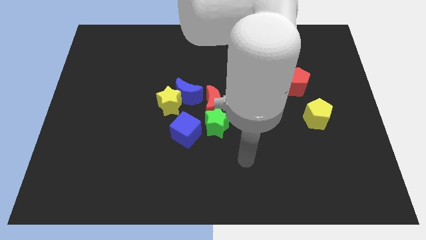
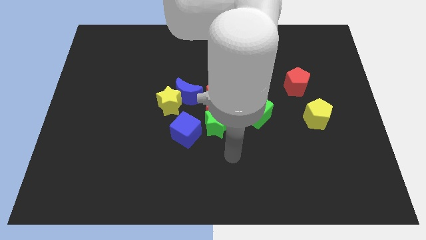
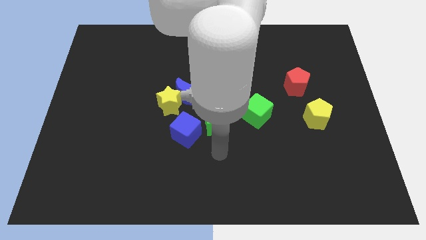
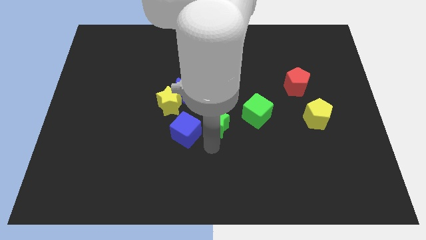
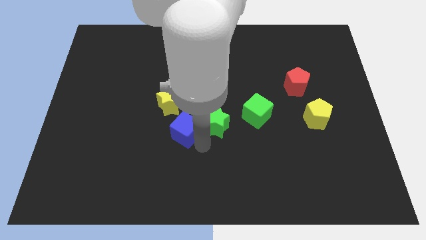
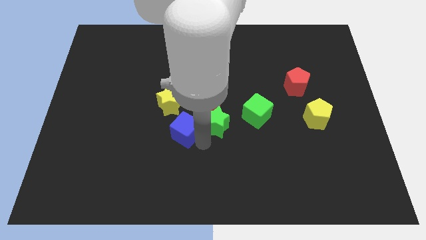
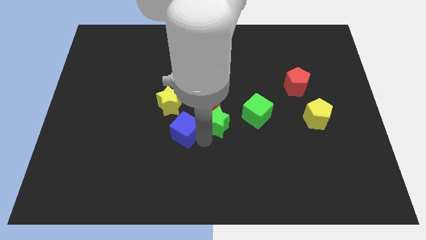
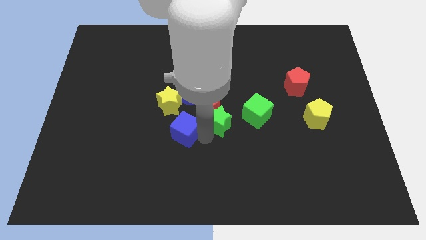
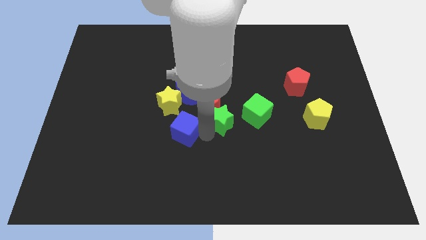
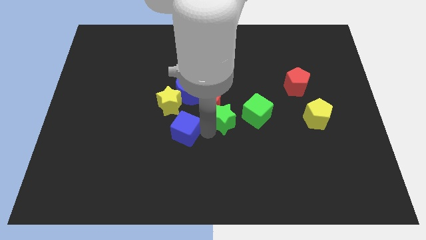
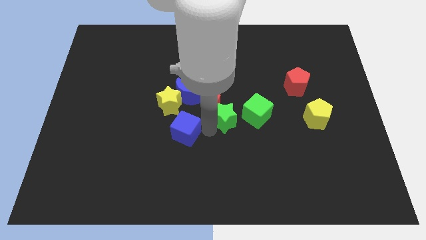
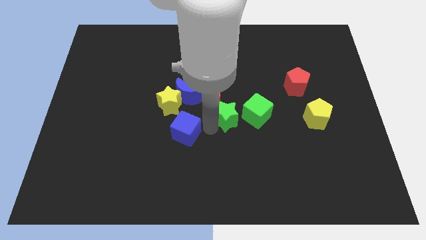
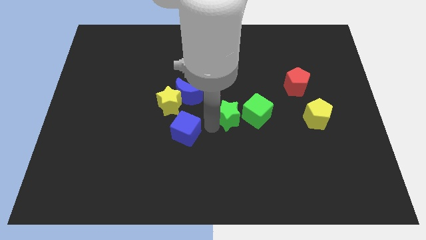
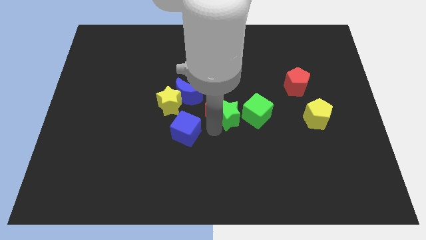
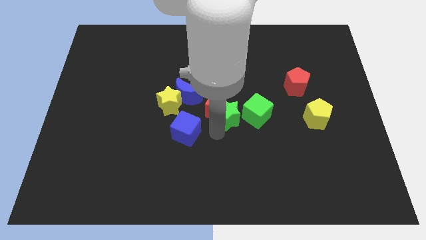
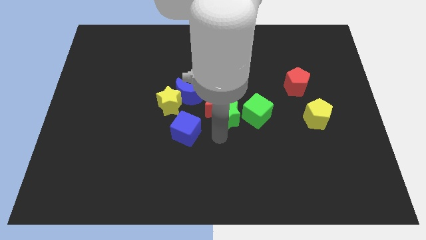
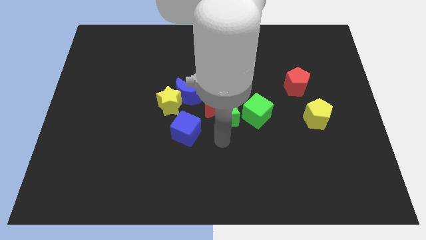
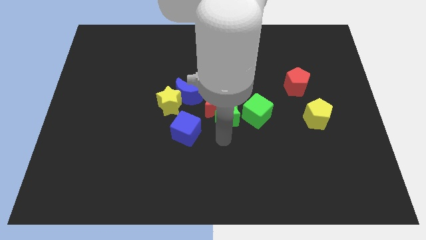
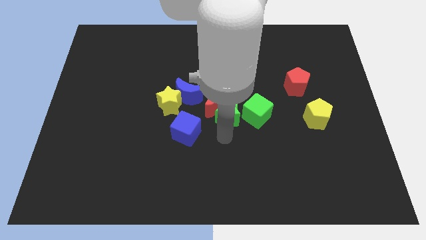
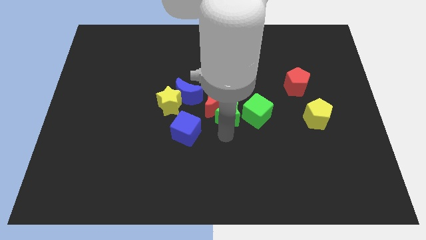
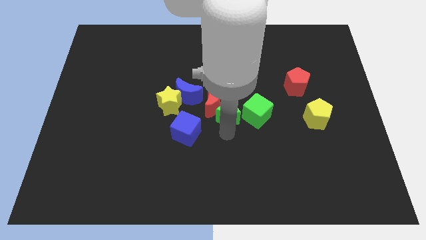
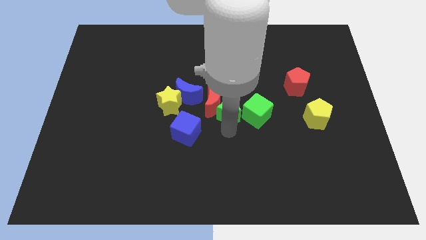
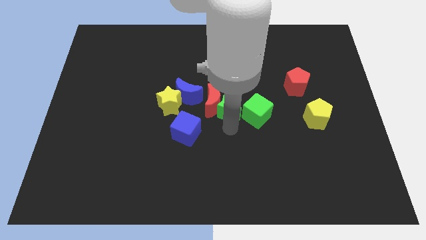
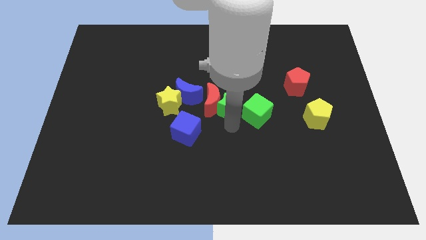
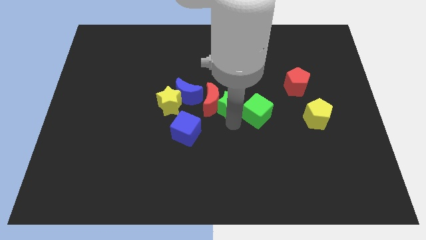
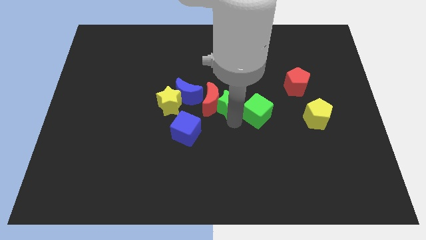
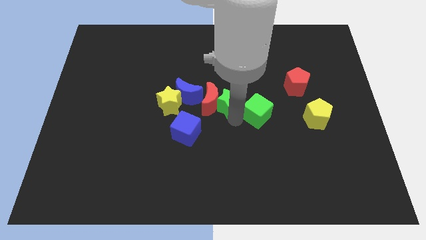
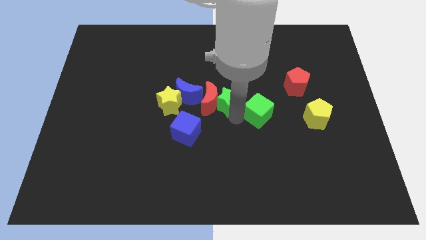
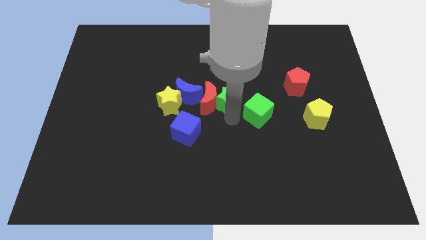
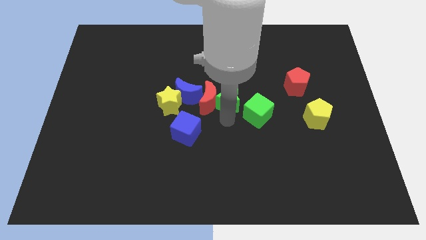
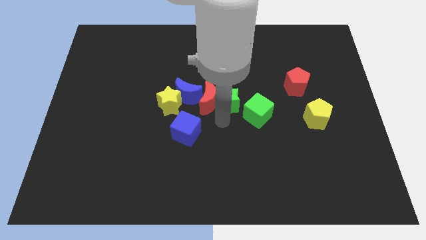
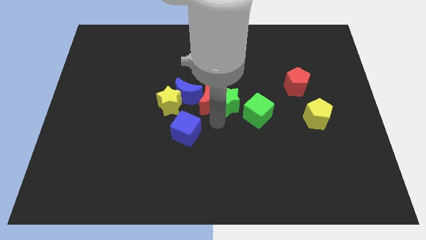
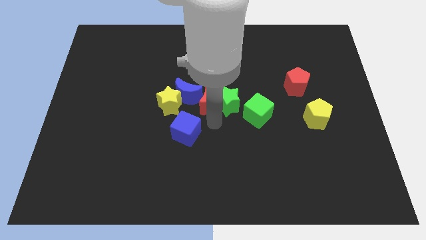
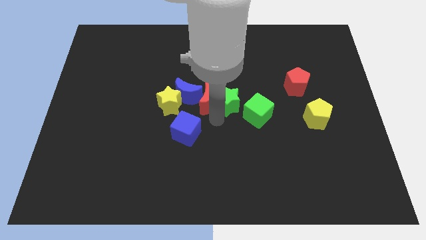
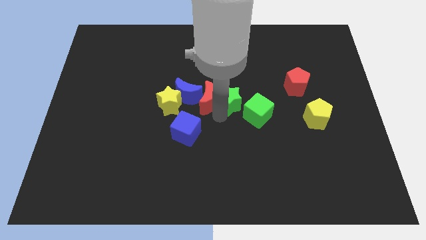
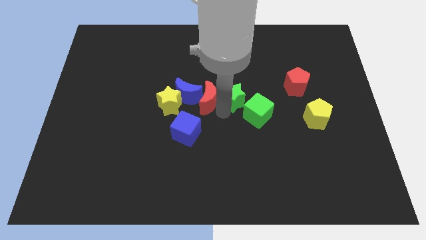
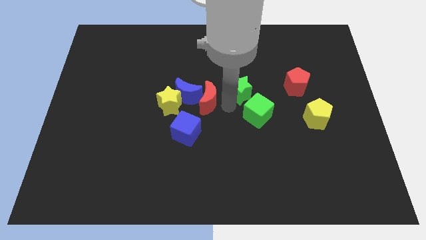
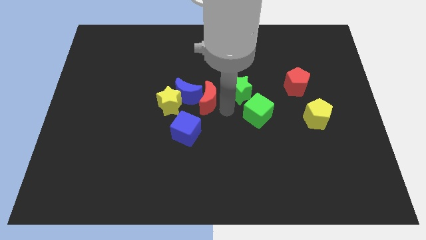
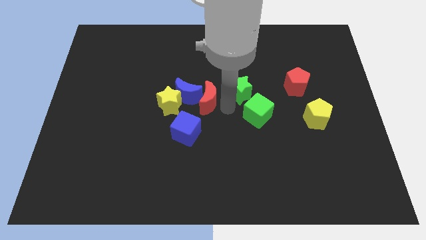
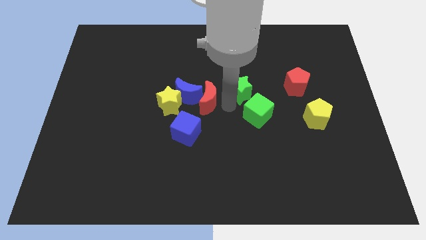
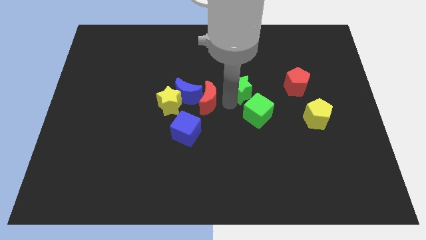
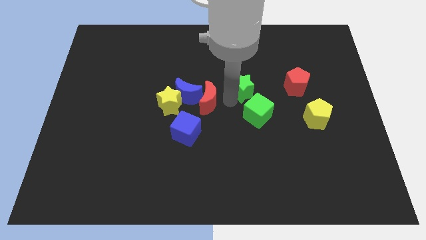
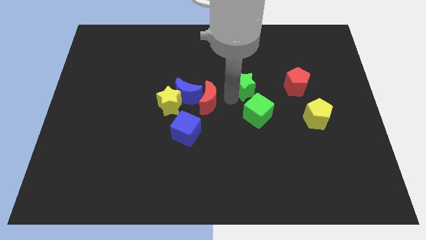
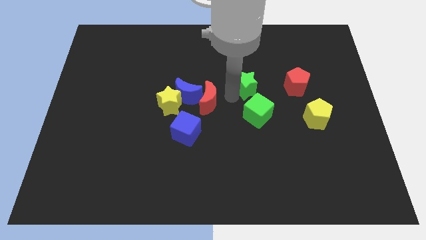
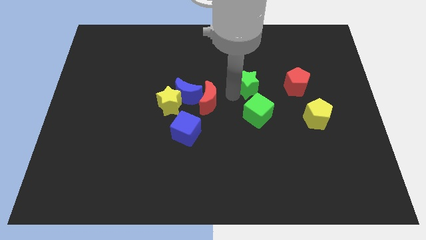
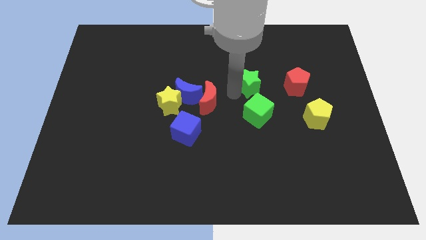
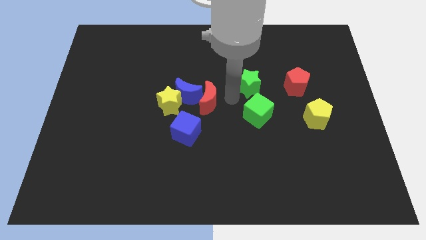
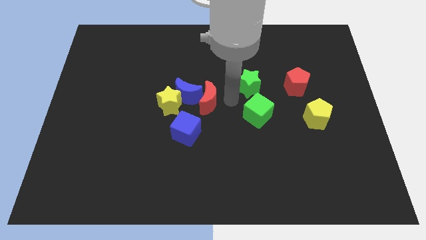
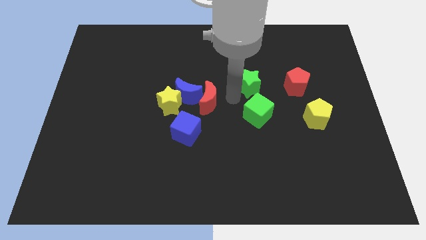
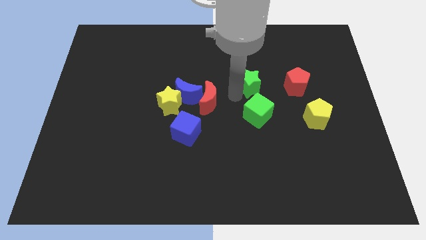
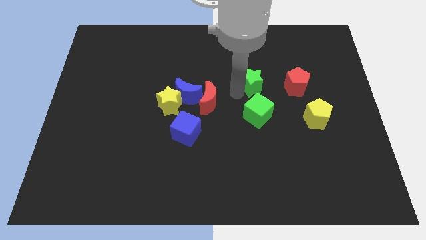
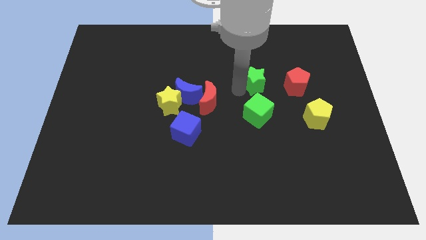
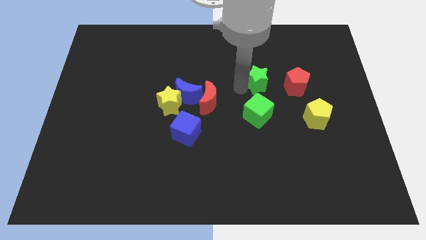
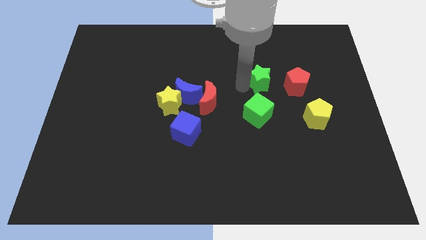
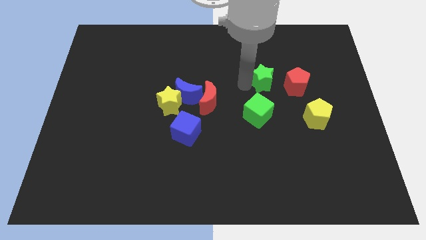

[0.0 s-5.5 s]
slide the green star diagonally up and to the left of the red pentagon

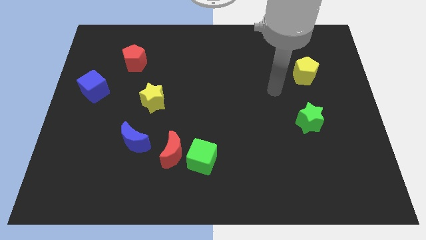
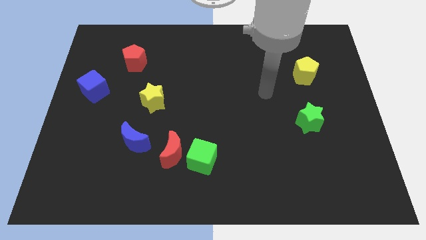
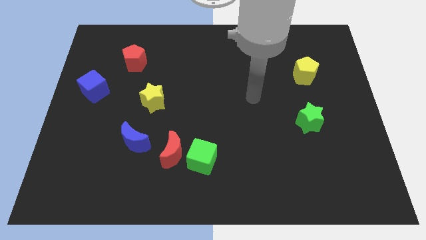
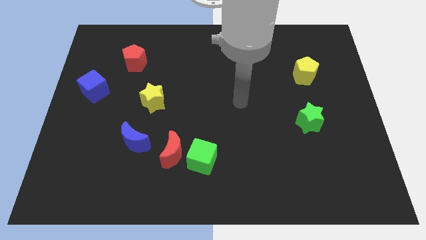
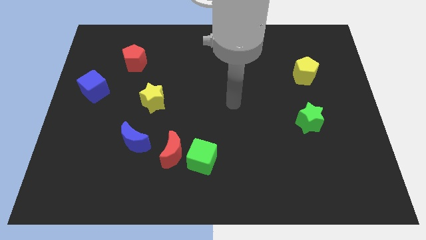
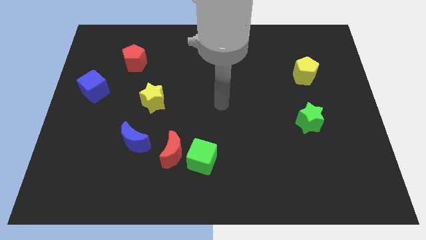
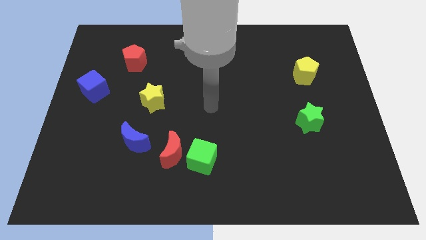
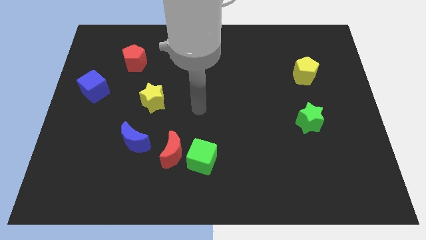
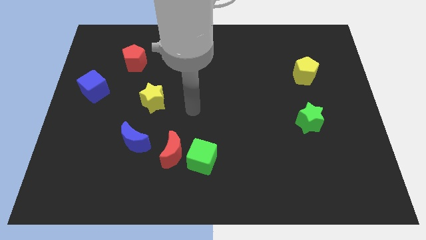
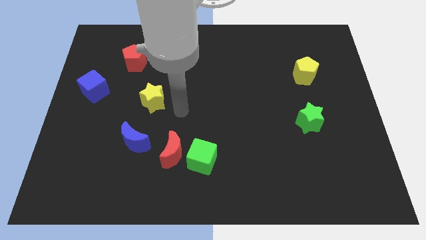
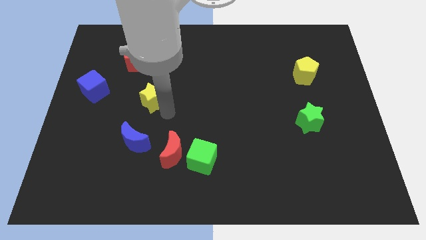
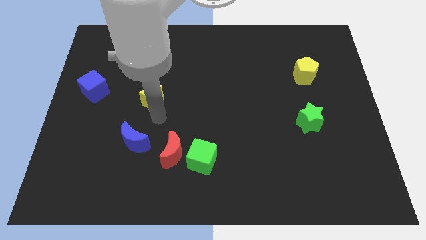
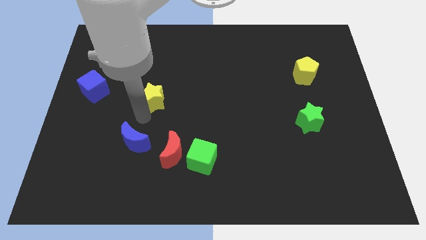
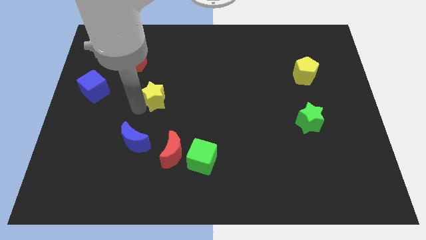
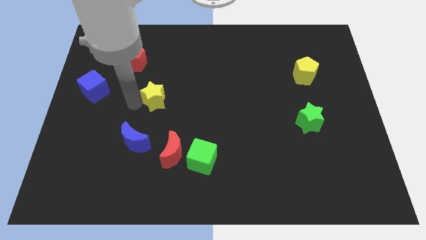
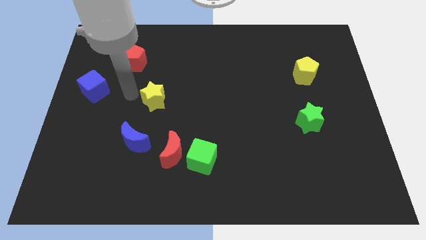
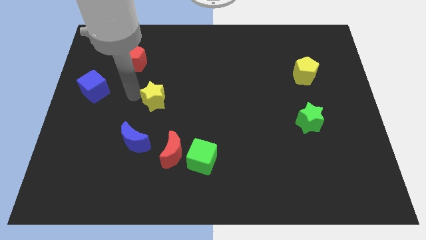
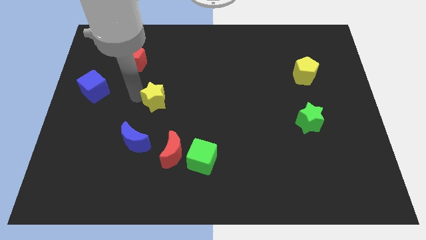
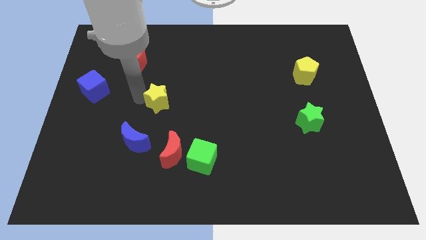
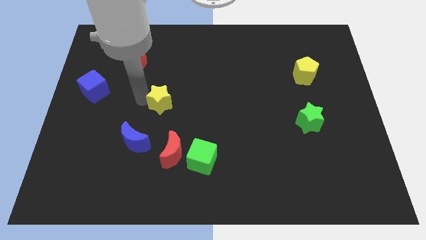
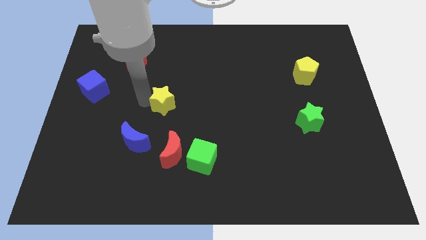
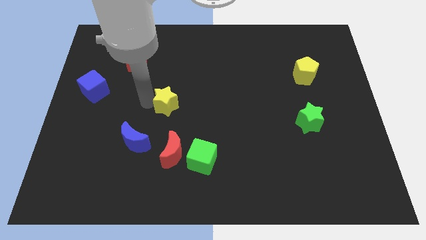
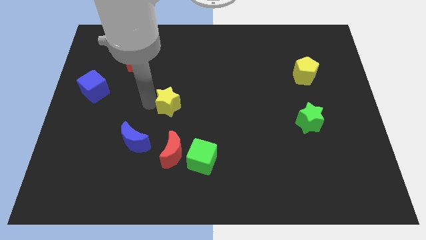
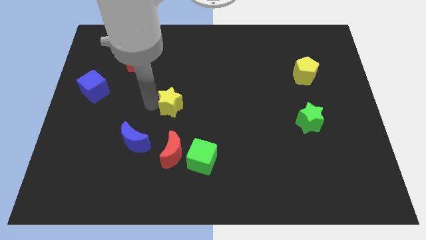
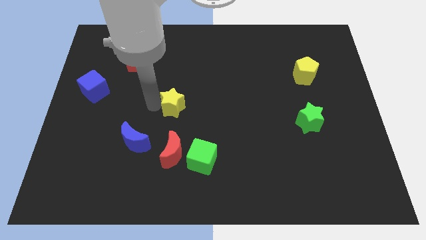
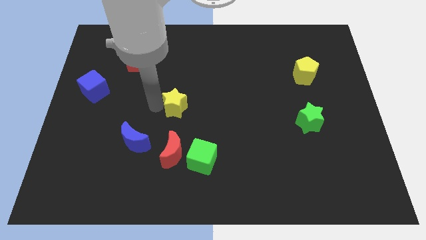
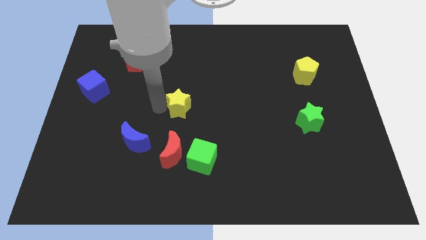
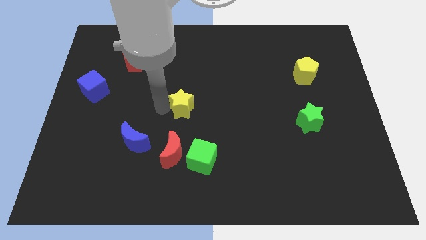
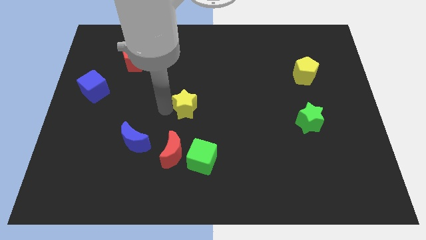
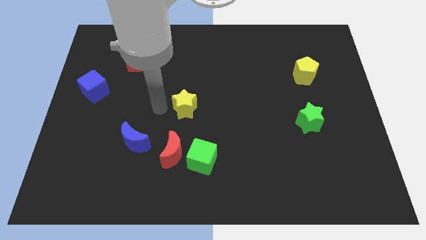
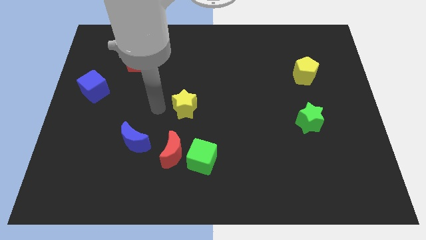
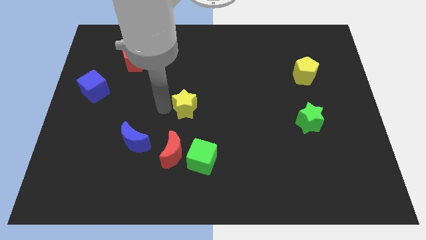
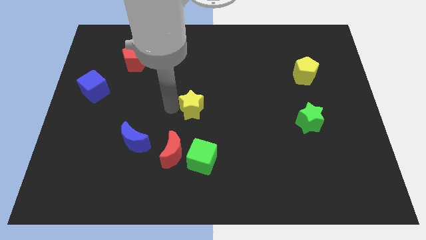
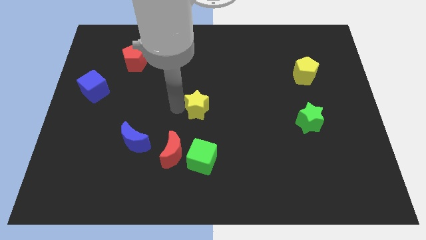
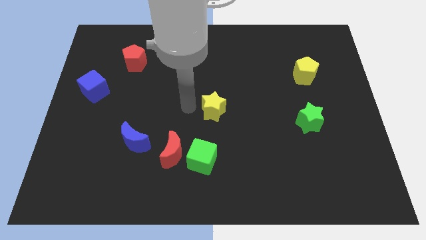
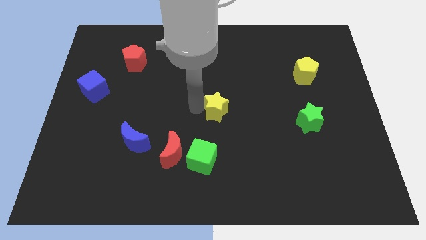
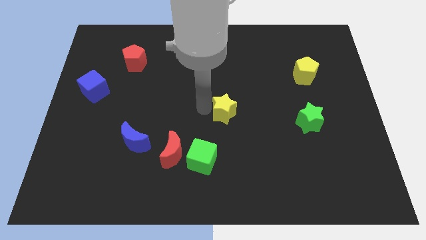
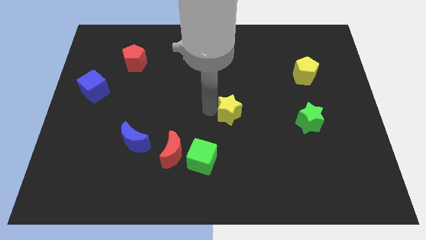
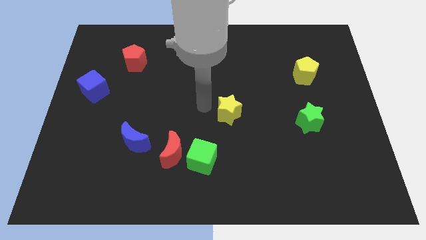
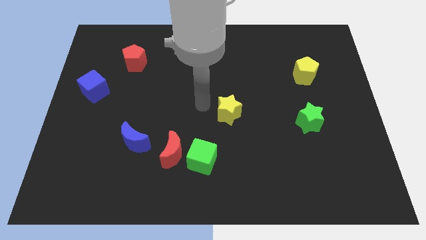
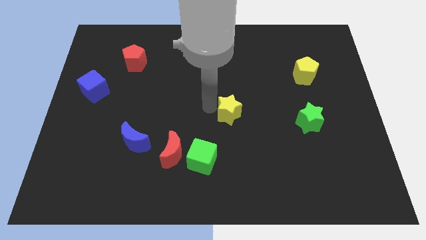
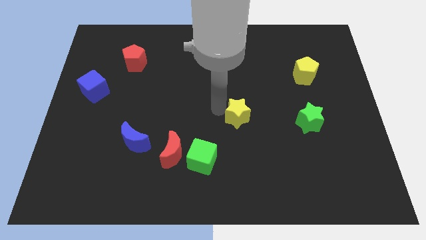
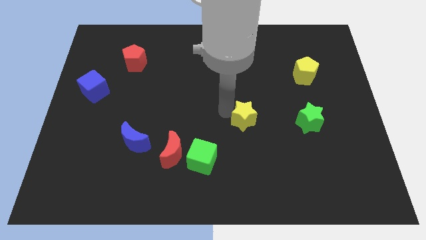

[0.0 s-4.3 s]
slide the yellow star left of the green star
